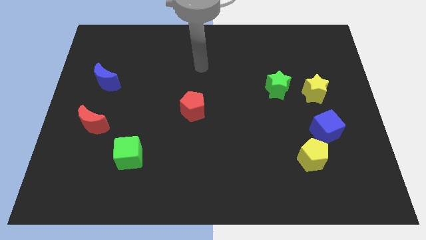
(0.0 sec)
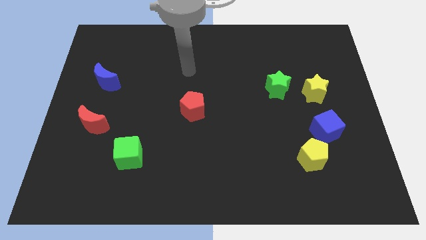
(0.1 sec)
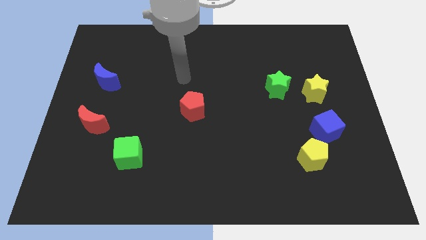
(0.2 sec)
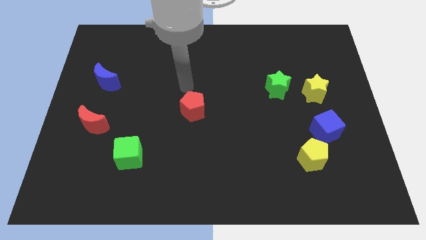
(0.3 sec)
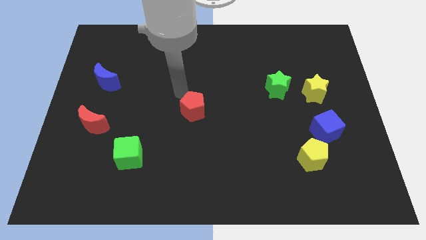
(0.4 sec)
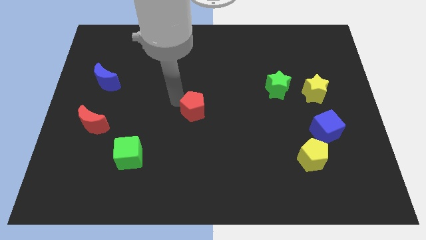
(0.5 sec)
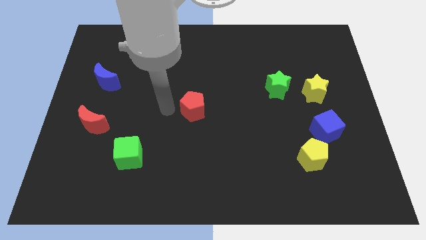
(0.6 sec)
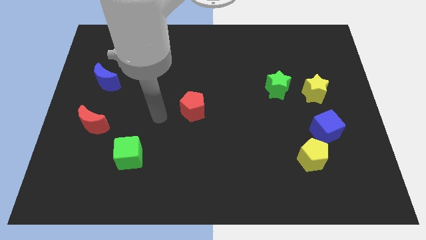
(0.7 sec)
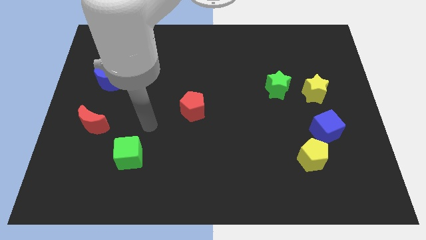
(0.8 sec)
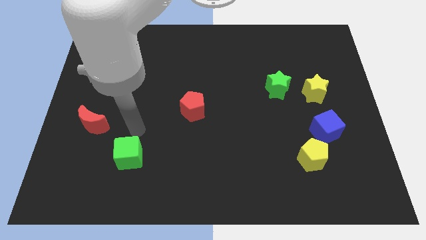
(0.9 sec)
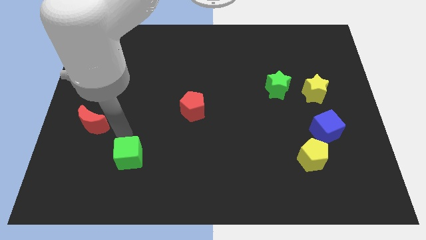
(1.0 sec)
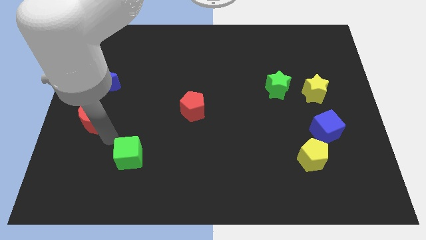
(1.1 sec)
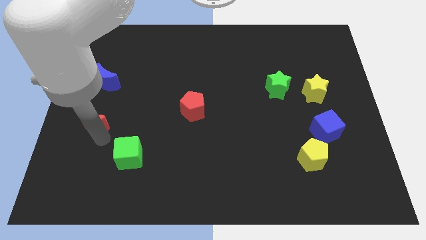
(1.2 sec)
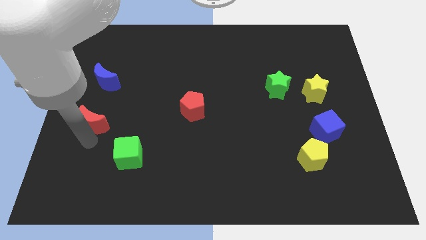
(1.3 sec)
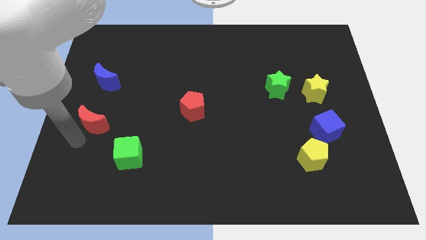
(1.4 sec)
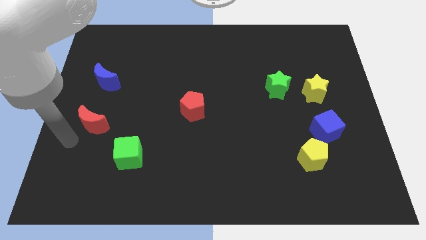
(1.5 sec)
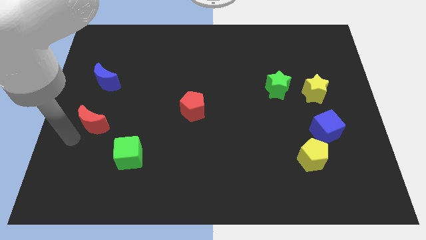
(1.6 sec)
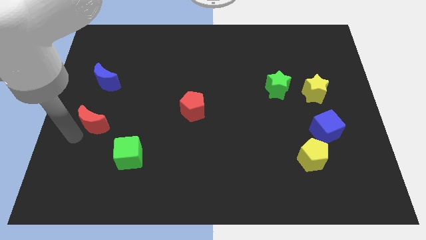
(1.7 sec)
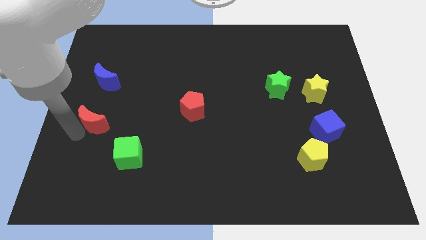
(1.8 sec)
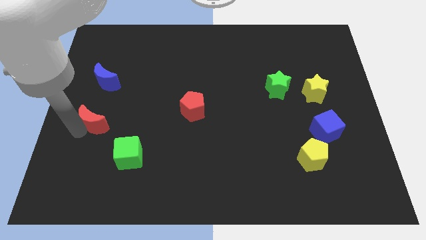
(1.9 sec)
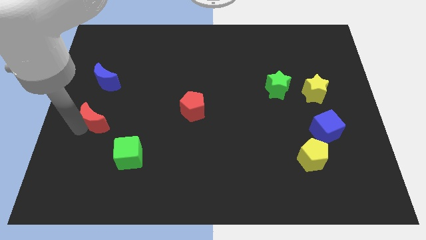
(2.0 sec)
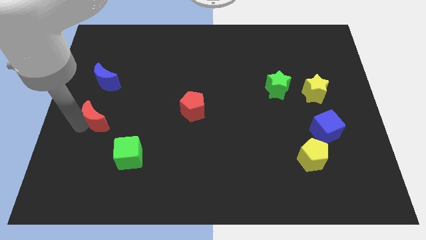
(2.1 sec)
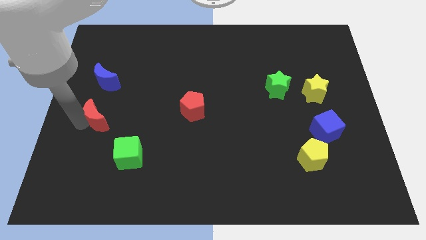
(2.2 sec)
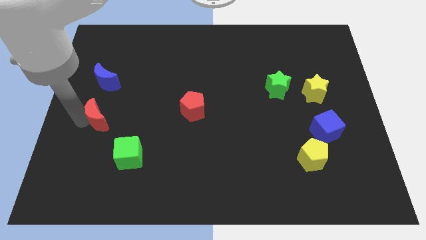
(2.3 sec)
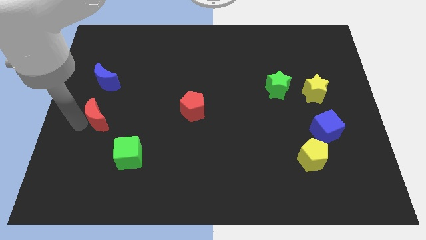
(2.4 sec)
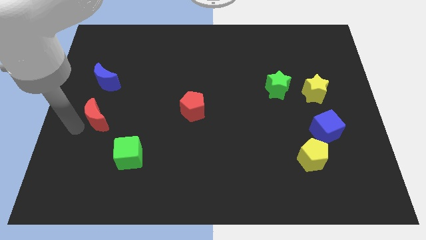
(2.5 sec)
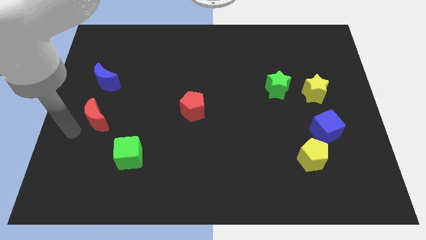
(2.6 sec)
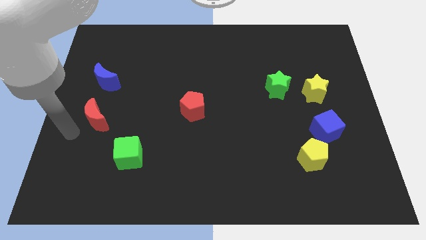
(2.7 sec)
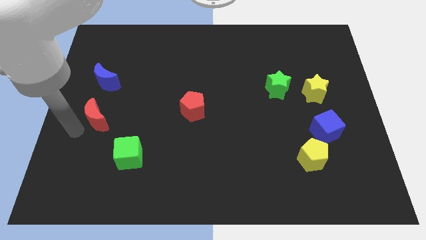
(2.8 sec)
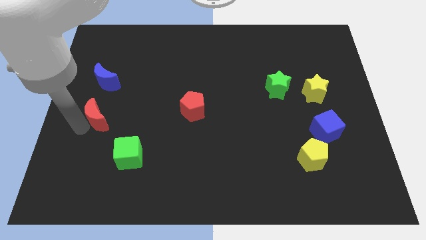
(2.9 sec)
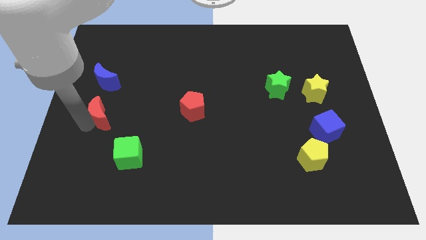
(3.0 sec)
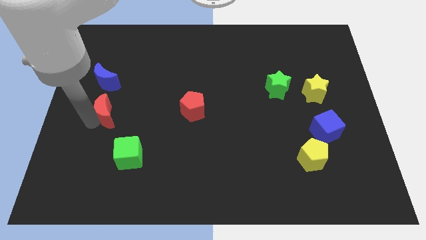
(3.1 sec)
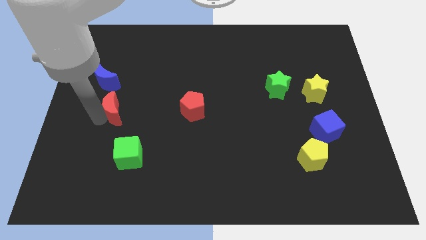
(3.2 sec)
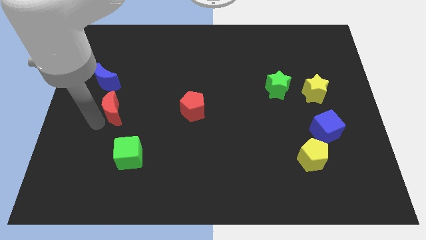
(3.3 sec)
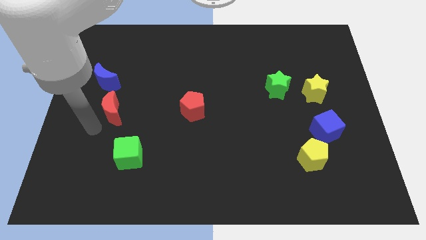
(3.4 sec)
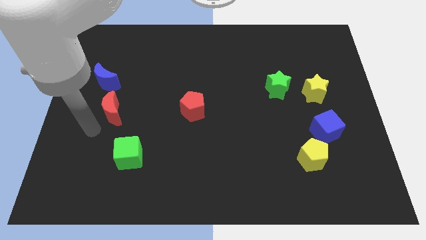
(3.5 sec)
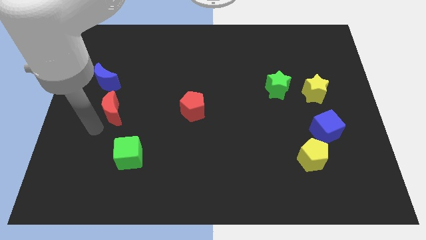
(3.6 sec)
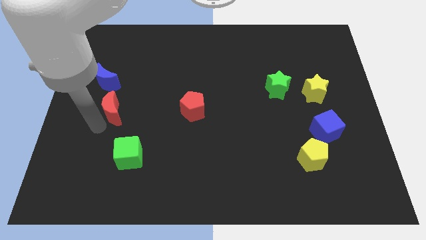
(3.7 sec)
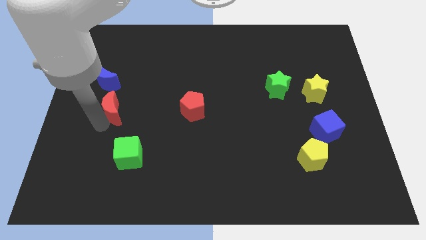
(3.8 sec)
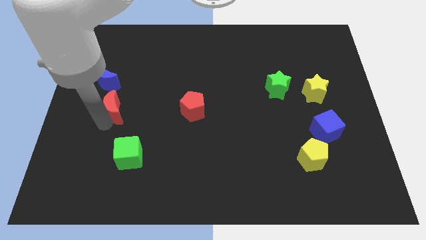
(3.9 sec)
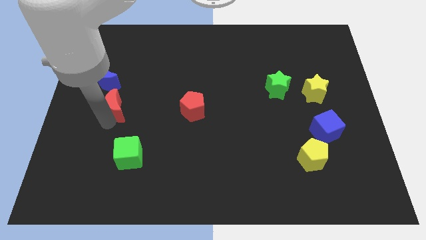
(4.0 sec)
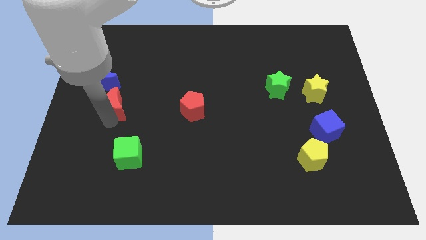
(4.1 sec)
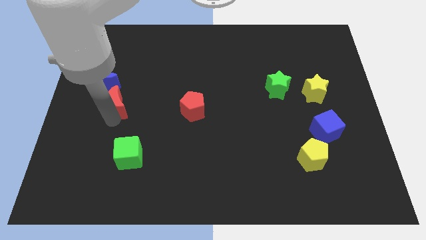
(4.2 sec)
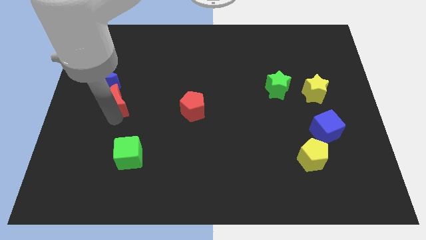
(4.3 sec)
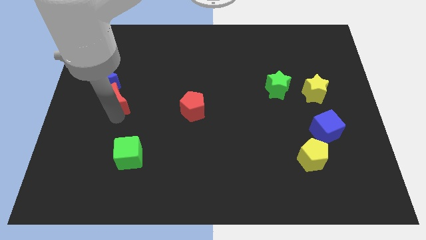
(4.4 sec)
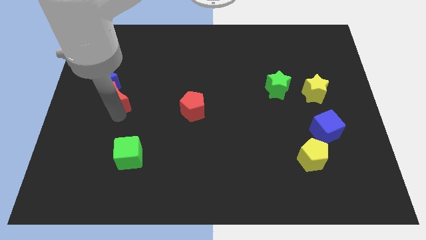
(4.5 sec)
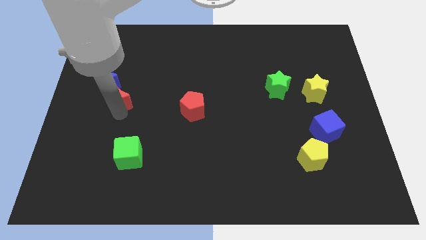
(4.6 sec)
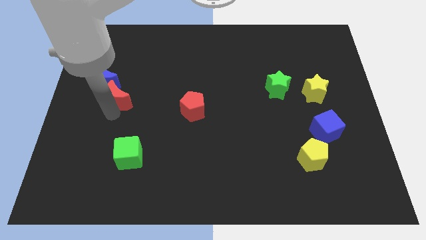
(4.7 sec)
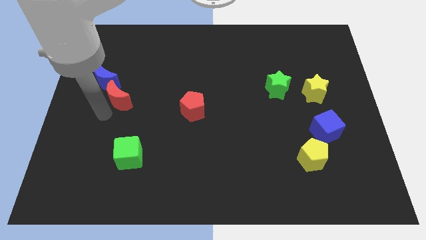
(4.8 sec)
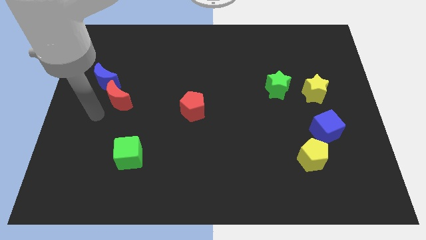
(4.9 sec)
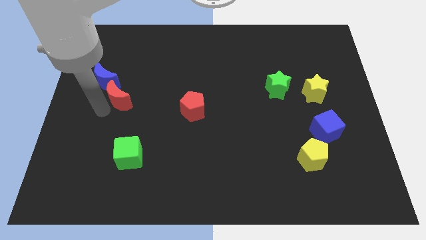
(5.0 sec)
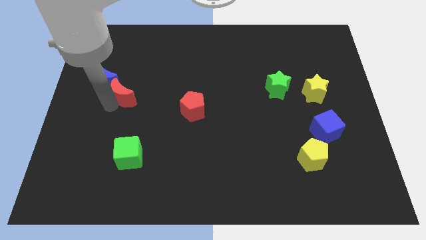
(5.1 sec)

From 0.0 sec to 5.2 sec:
slide the red moon to the right side of the blue moon

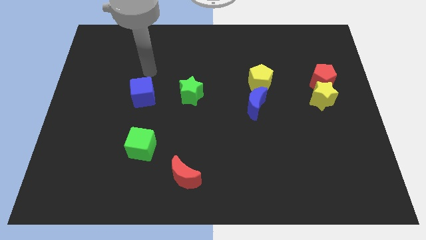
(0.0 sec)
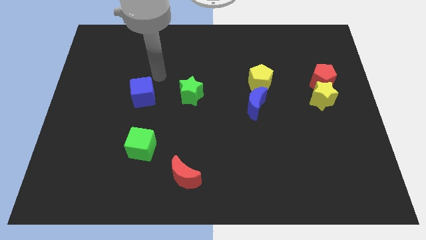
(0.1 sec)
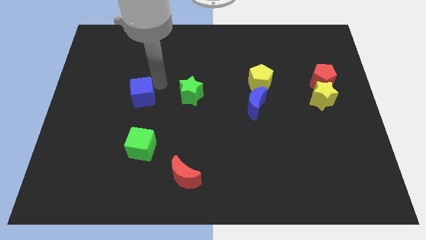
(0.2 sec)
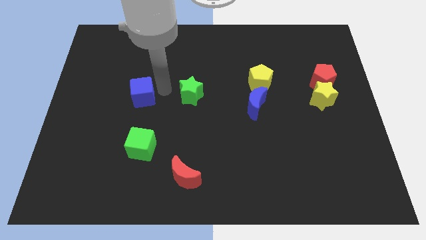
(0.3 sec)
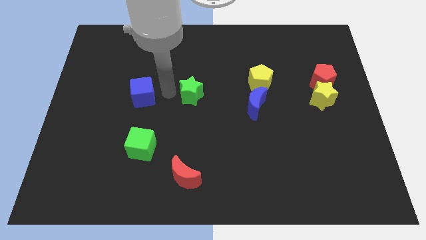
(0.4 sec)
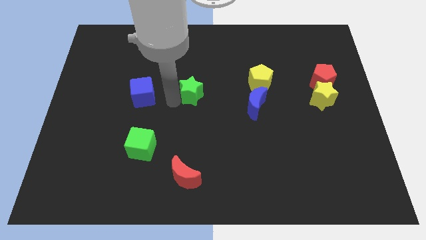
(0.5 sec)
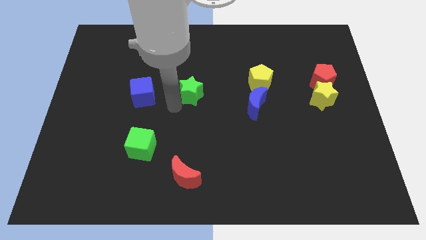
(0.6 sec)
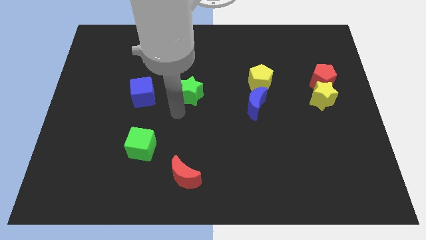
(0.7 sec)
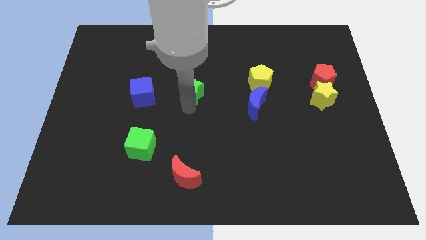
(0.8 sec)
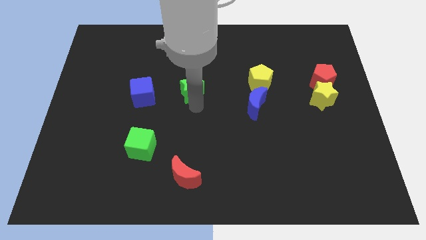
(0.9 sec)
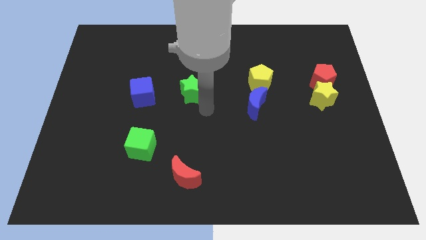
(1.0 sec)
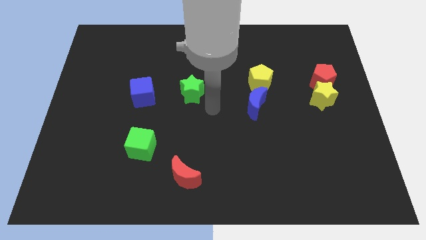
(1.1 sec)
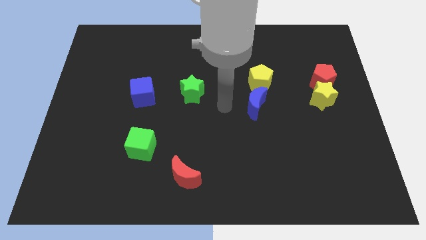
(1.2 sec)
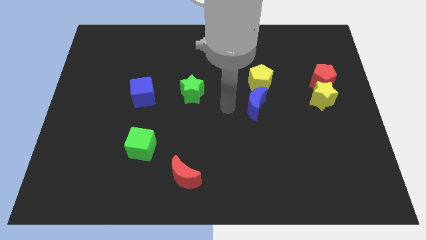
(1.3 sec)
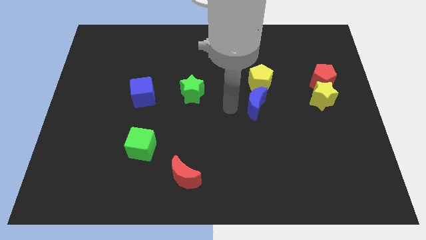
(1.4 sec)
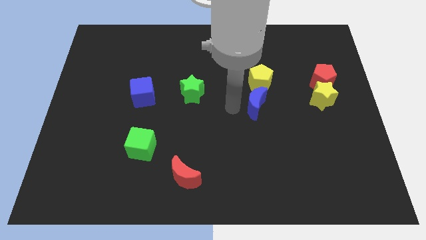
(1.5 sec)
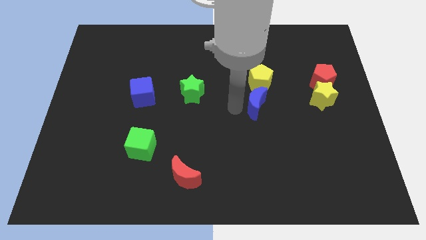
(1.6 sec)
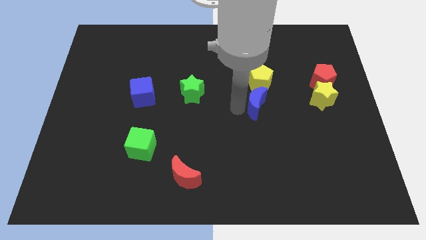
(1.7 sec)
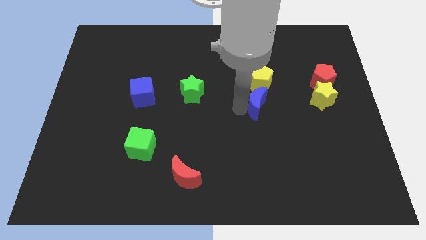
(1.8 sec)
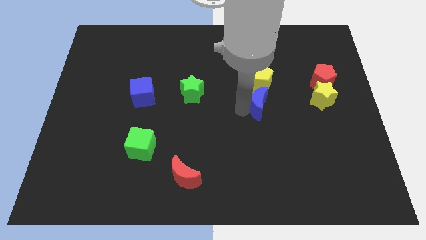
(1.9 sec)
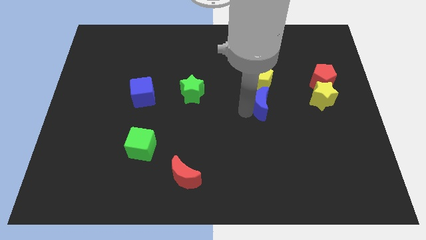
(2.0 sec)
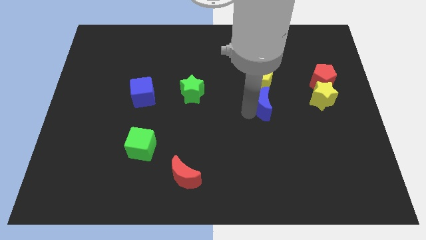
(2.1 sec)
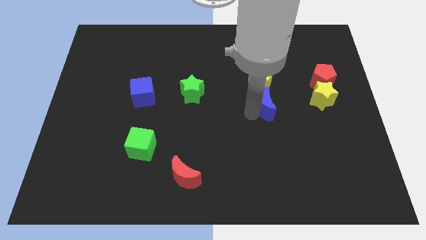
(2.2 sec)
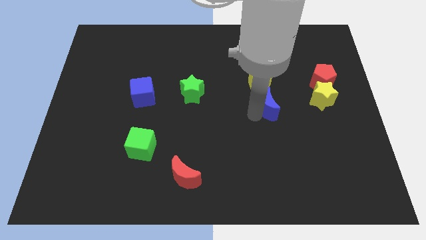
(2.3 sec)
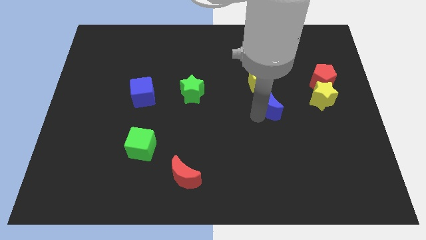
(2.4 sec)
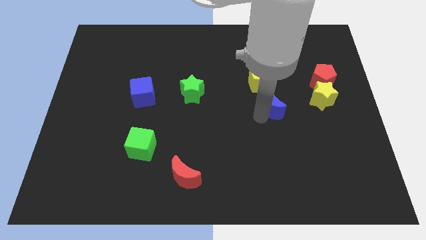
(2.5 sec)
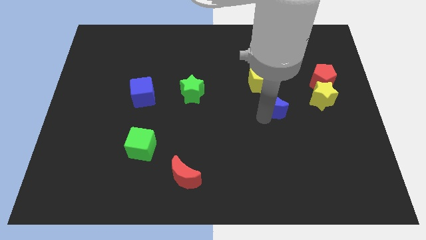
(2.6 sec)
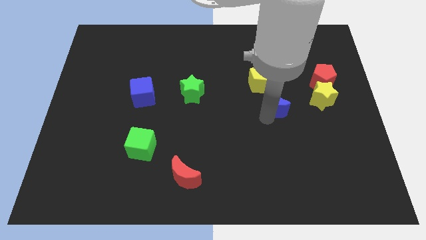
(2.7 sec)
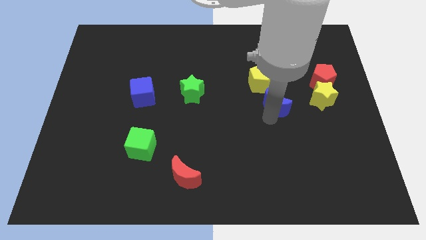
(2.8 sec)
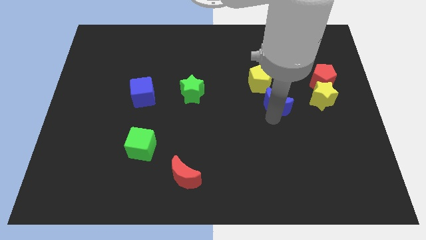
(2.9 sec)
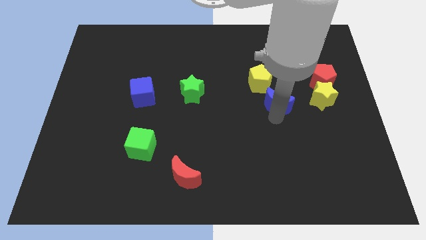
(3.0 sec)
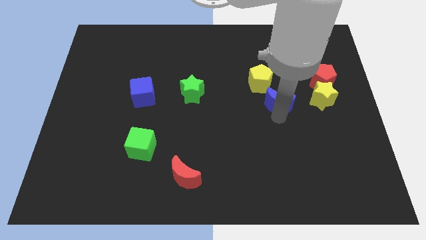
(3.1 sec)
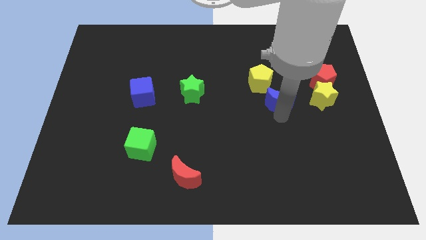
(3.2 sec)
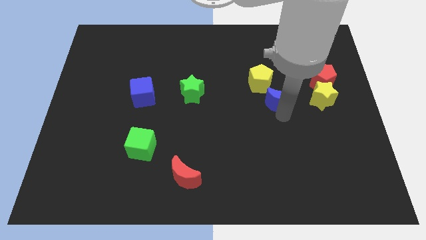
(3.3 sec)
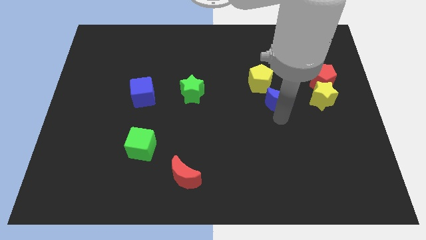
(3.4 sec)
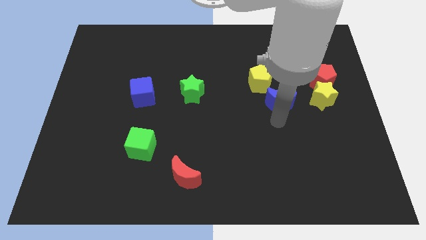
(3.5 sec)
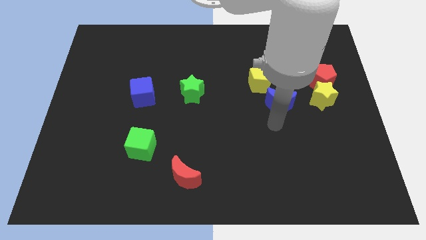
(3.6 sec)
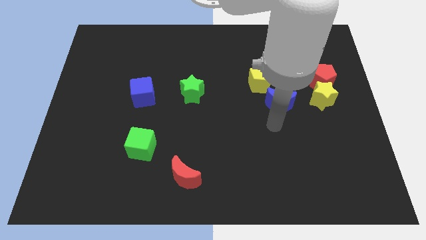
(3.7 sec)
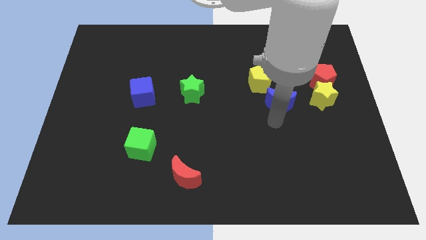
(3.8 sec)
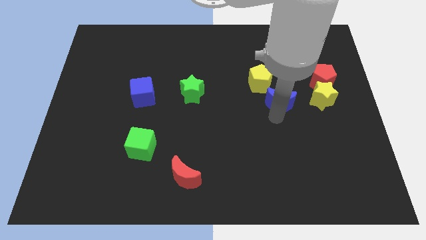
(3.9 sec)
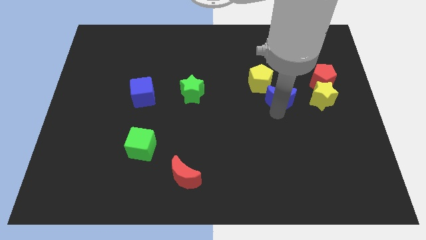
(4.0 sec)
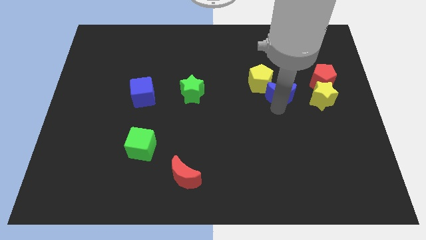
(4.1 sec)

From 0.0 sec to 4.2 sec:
push the blue moon just right of the yellow pentagon
